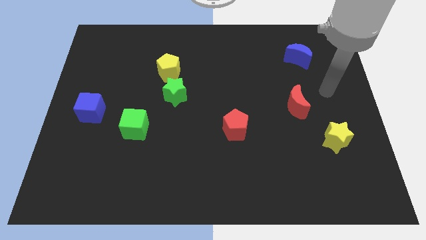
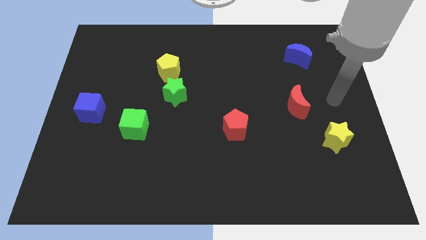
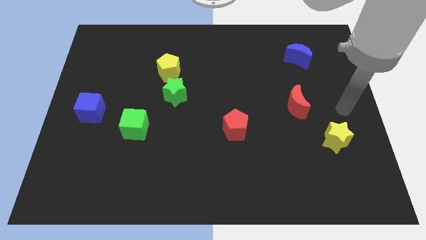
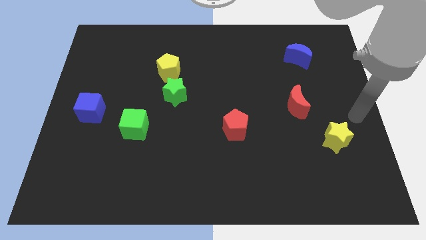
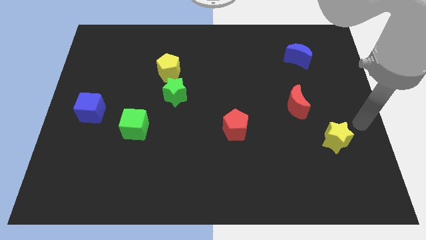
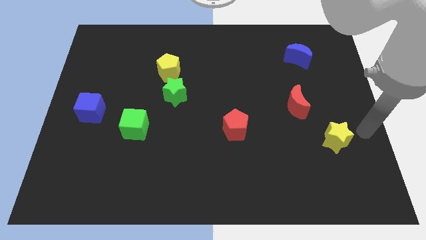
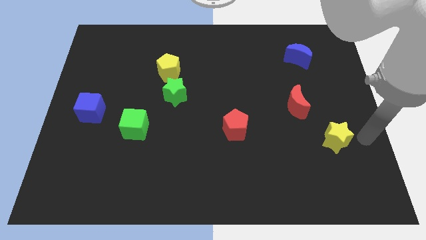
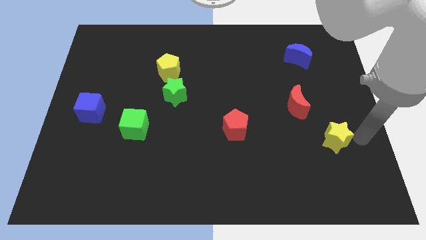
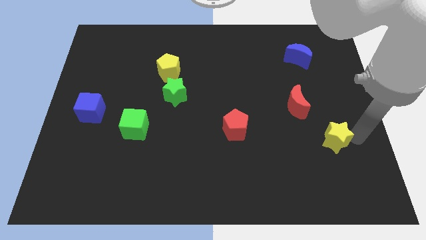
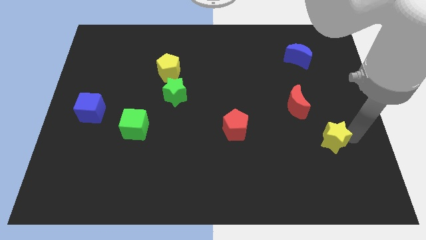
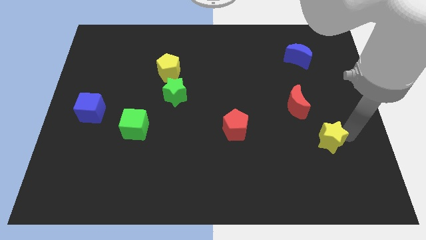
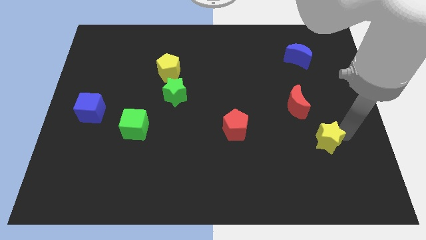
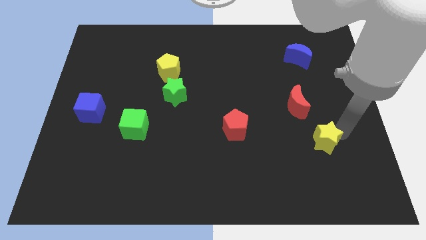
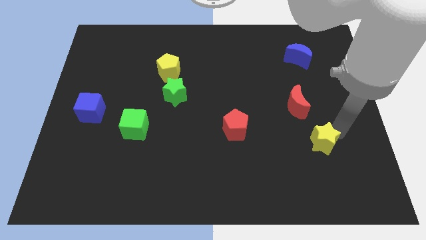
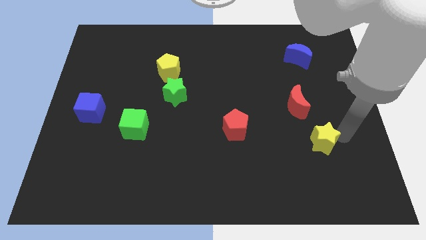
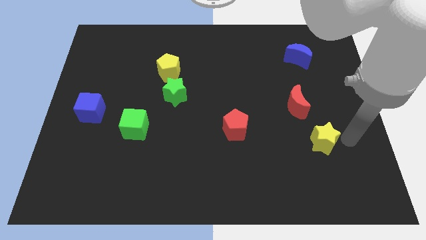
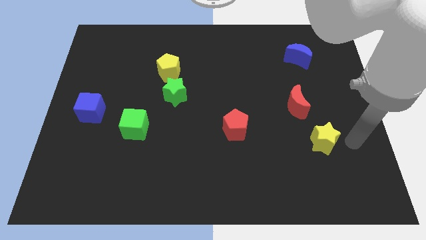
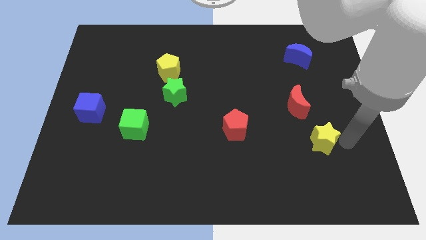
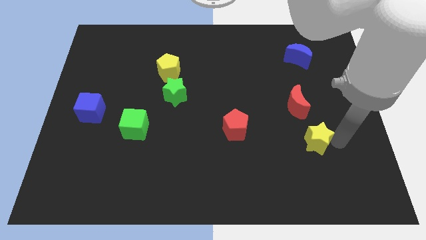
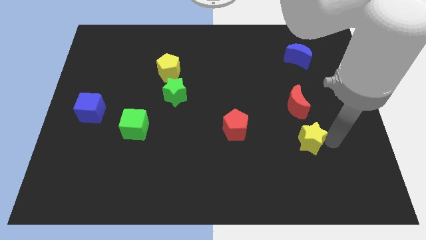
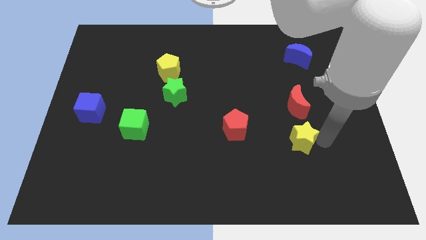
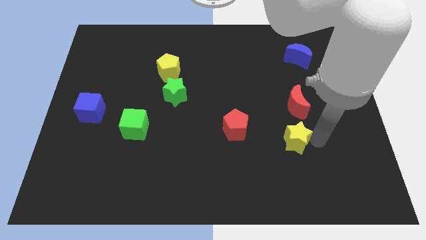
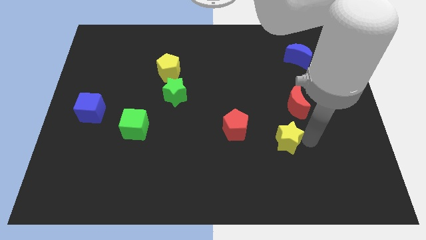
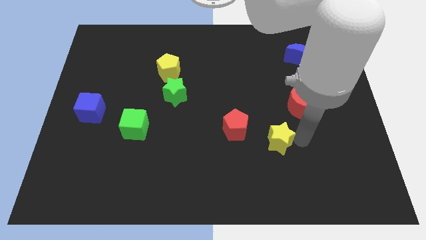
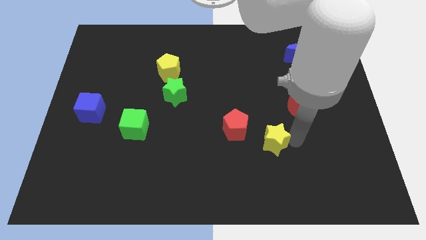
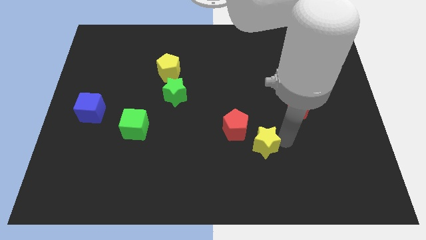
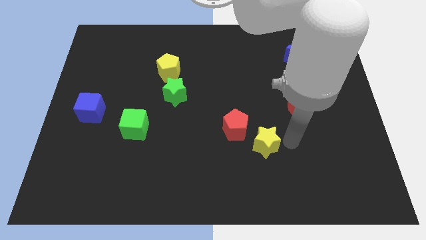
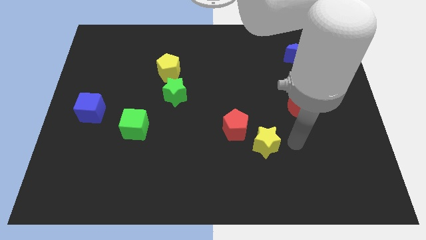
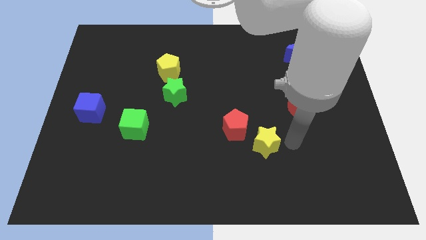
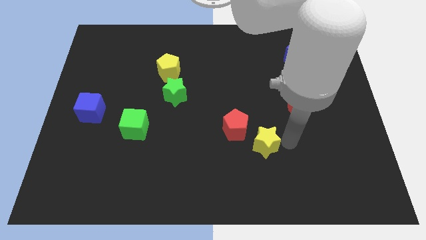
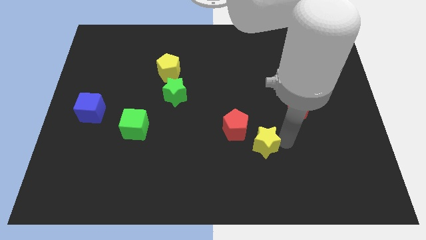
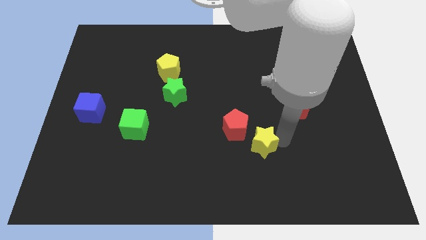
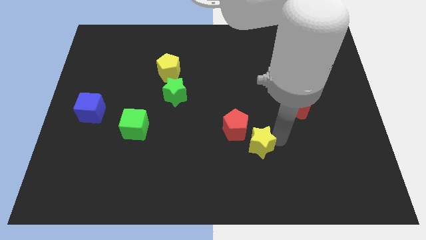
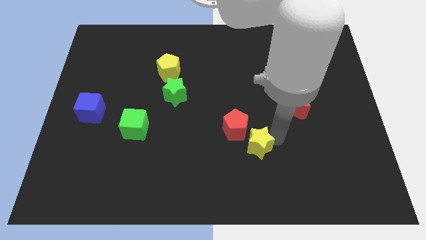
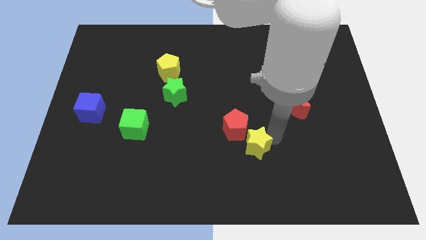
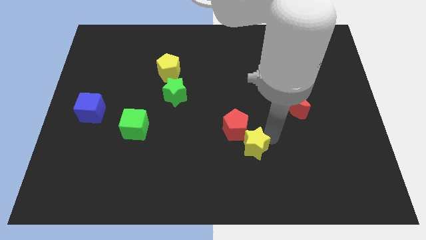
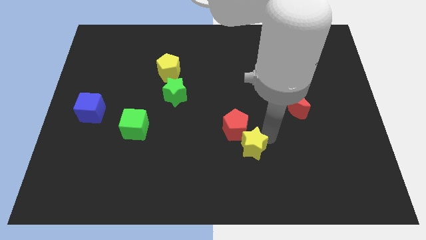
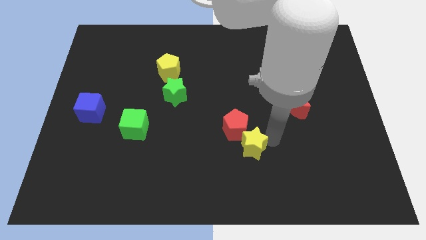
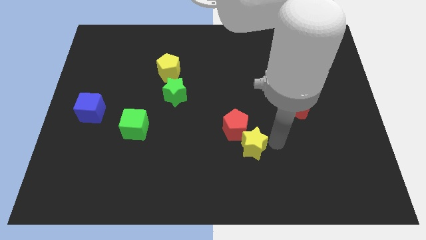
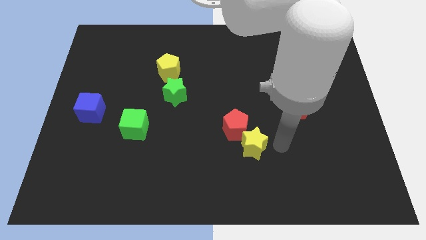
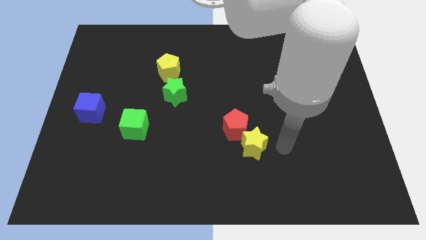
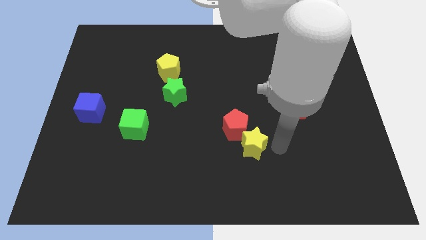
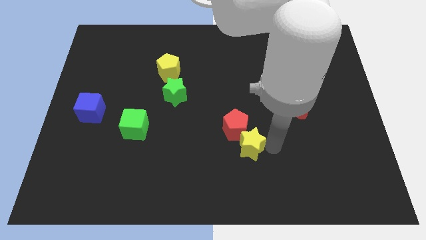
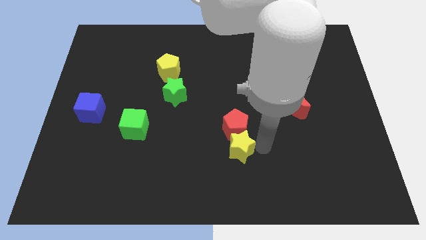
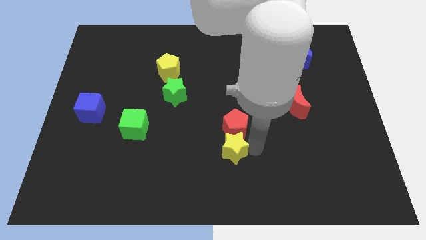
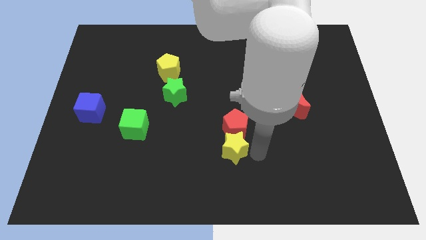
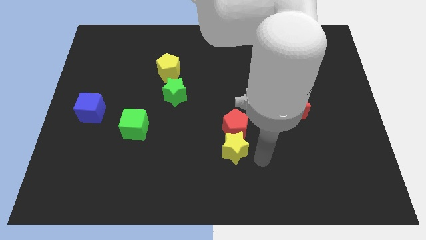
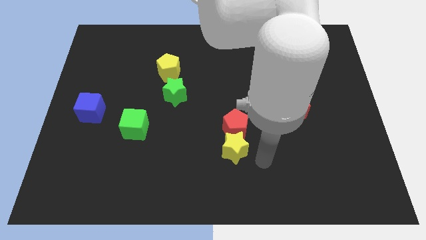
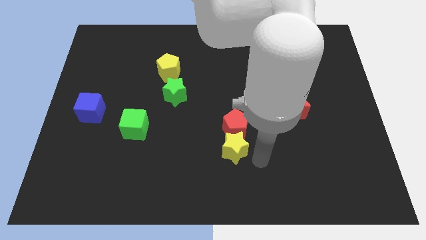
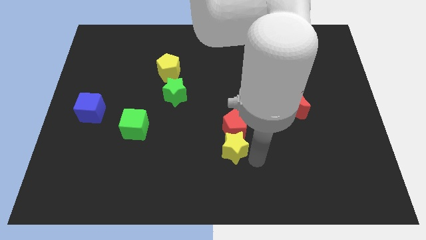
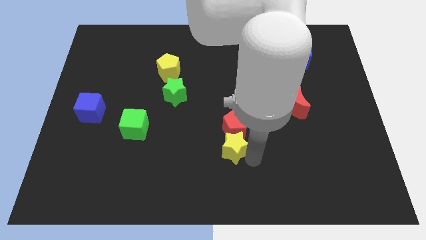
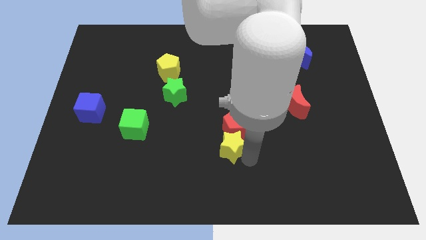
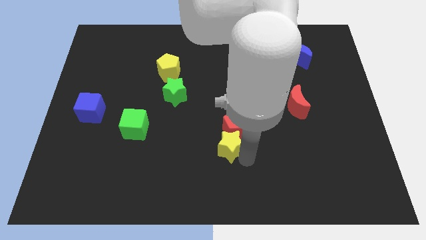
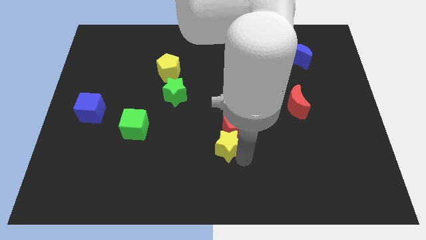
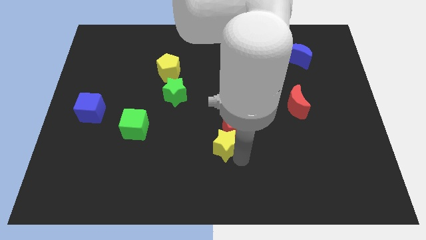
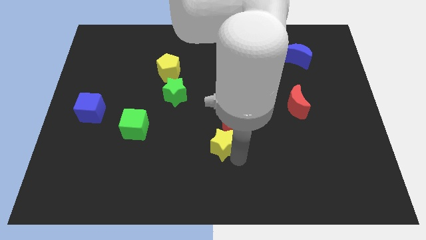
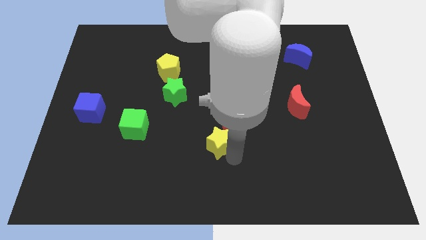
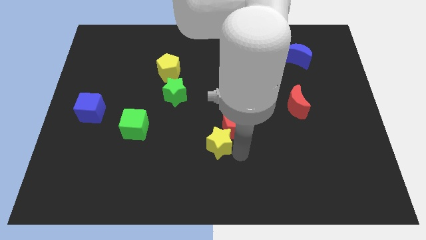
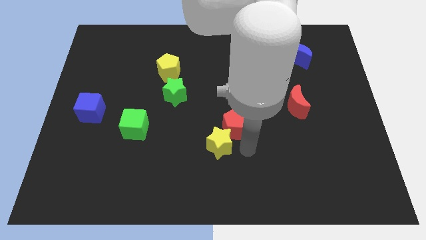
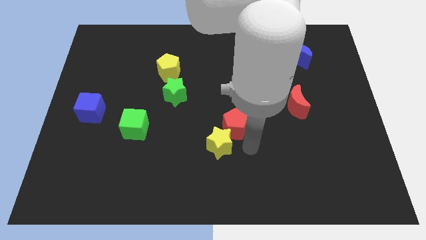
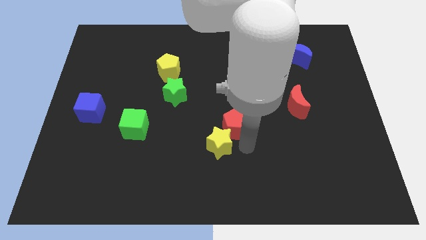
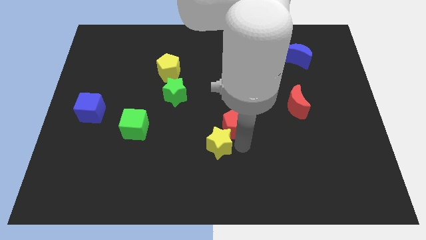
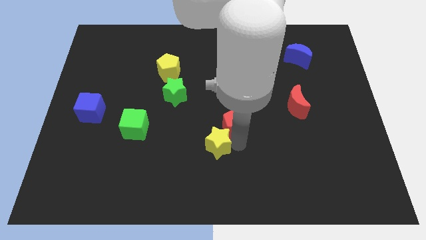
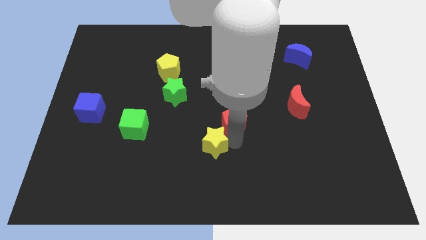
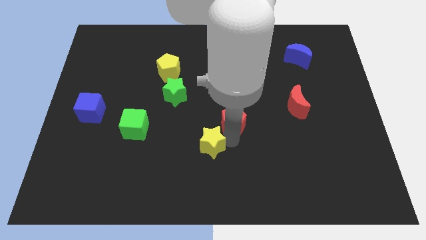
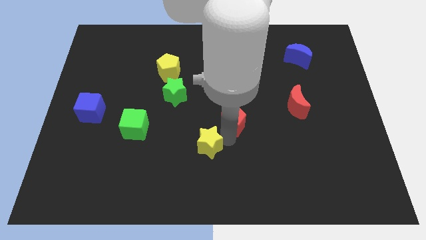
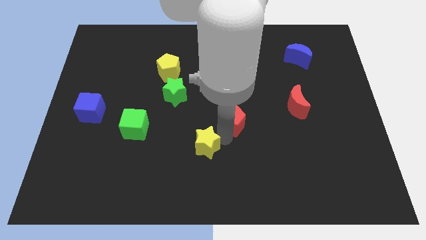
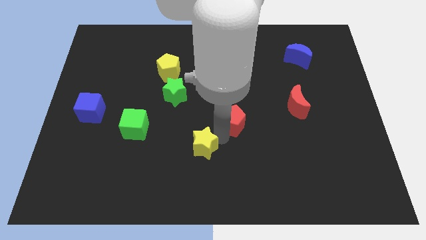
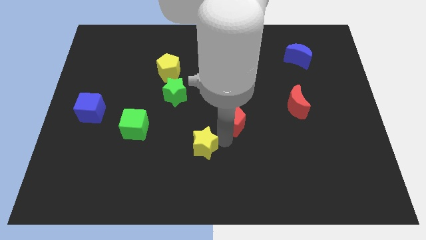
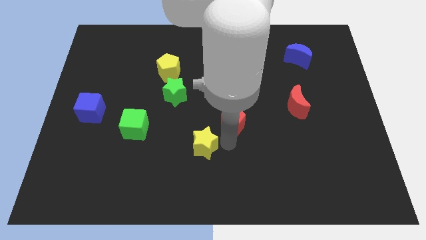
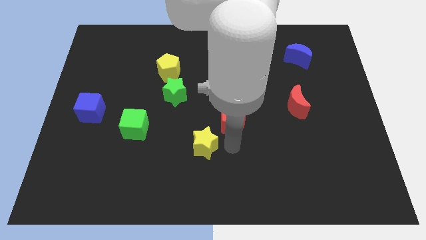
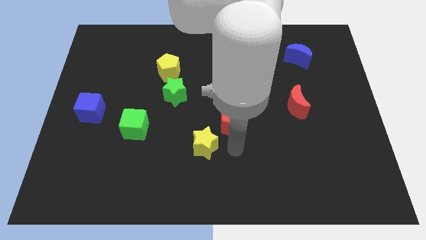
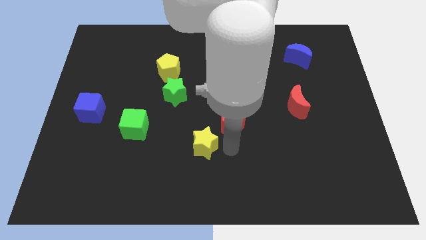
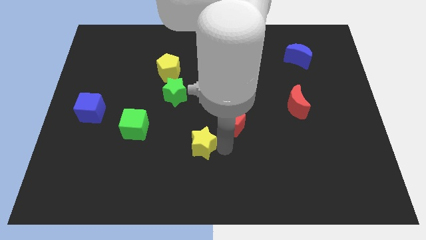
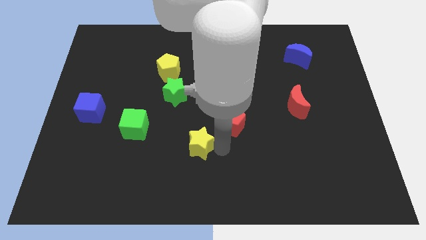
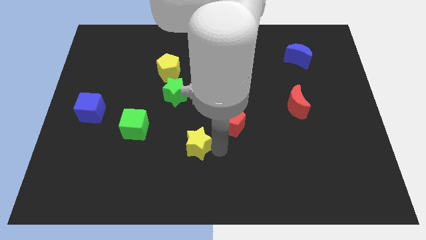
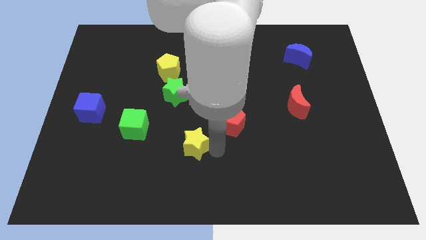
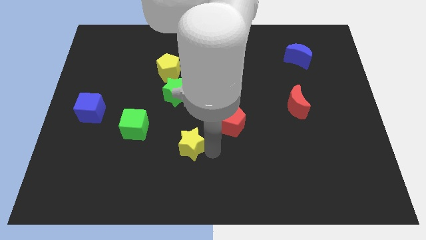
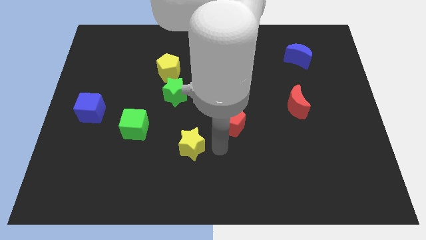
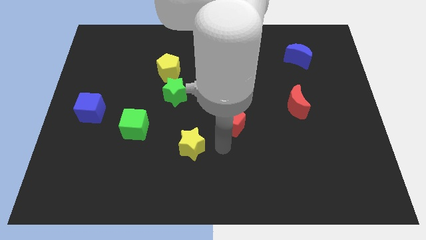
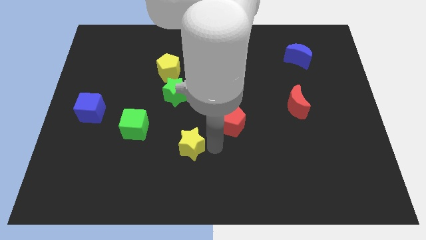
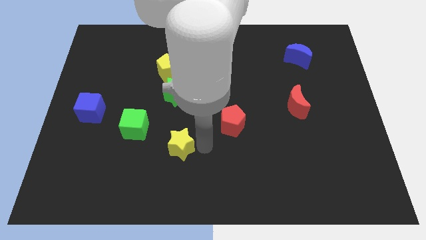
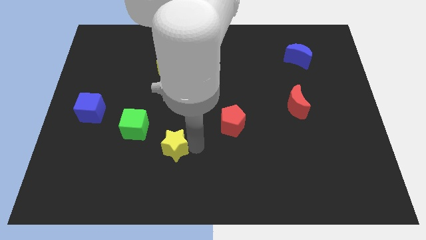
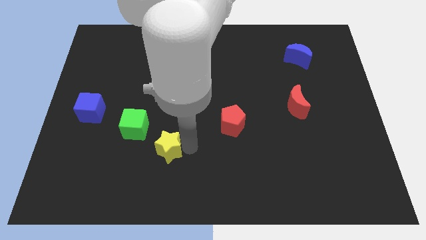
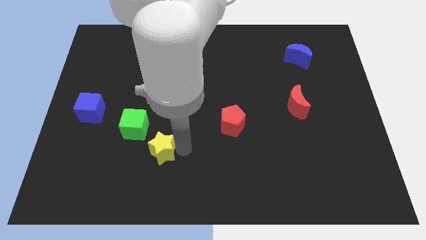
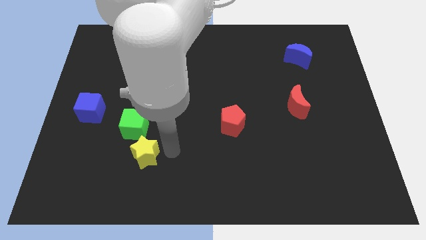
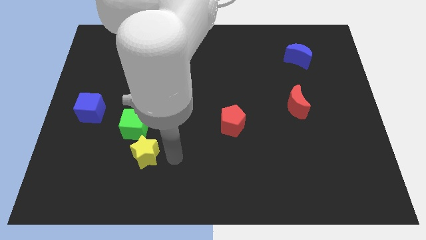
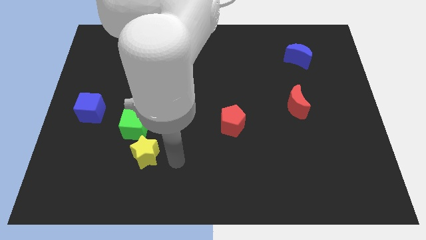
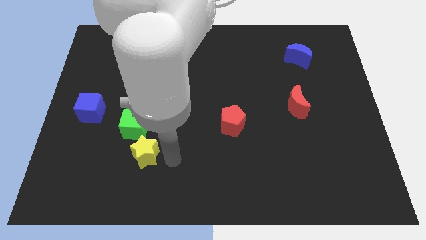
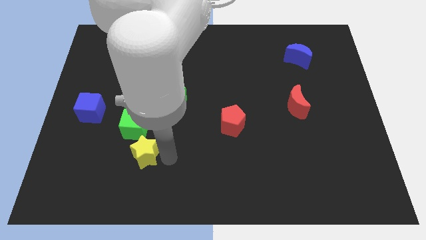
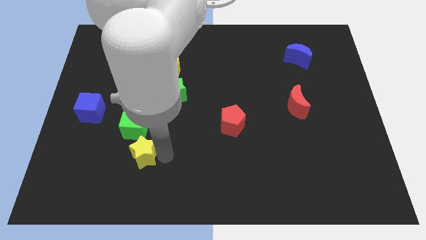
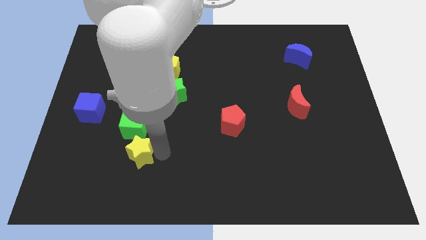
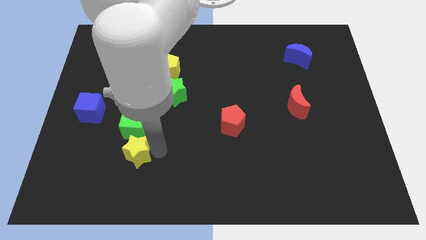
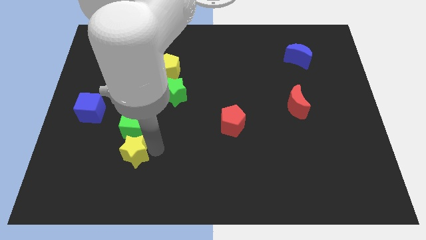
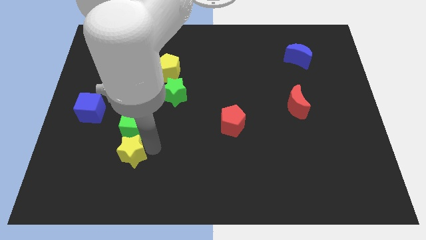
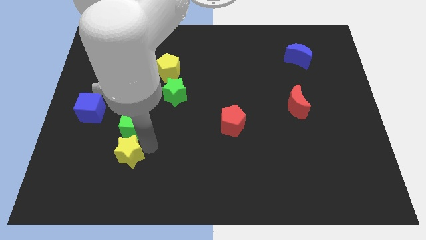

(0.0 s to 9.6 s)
push the yellow star diagonally down and to the left of the green cube
